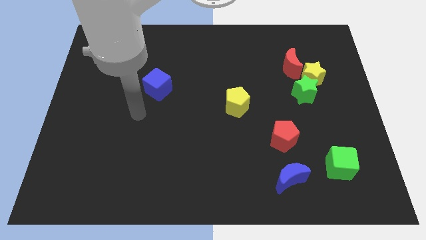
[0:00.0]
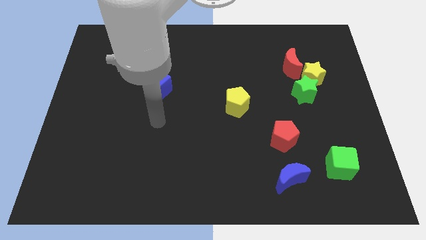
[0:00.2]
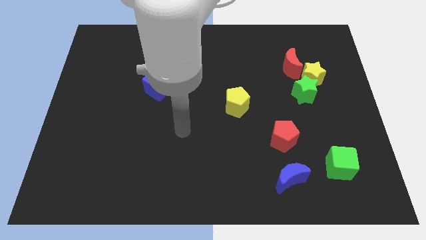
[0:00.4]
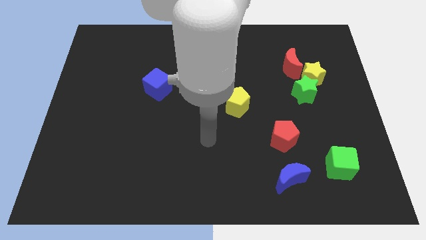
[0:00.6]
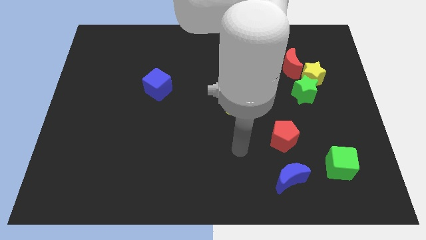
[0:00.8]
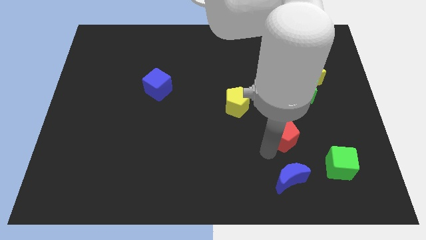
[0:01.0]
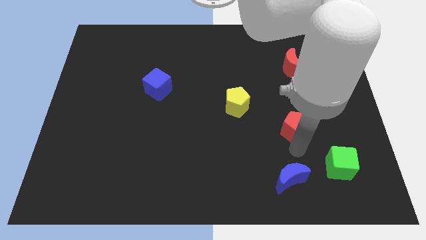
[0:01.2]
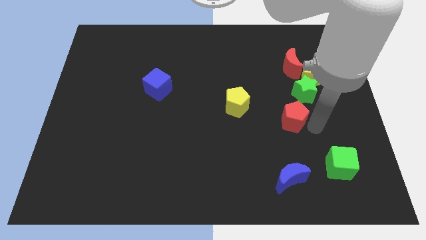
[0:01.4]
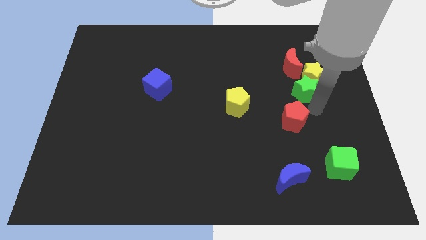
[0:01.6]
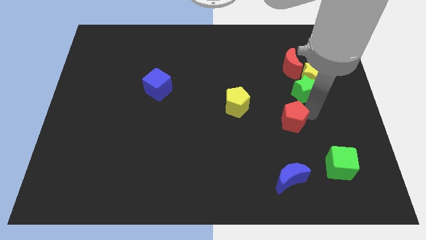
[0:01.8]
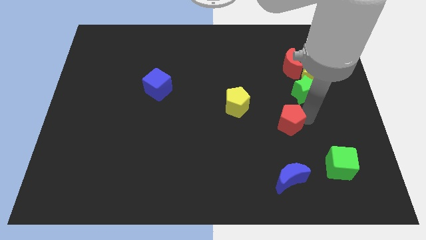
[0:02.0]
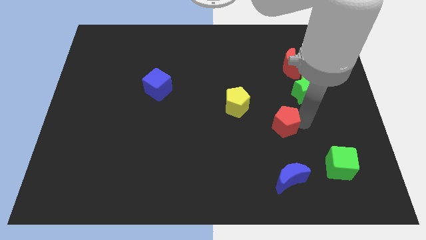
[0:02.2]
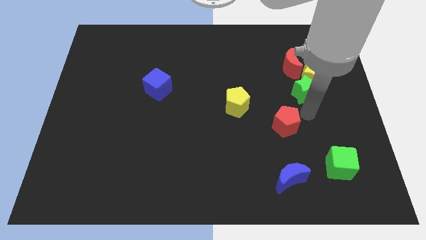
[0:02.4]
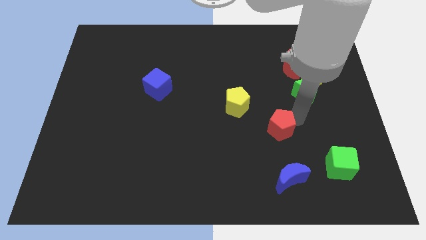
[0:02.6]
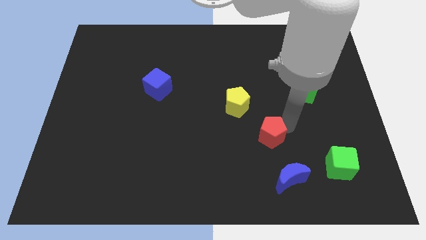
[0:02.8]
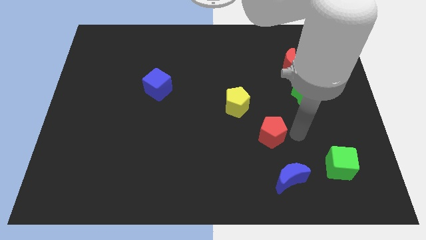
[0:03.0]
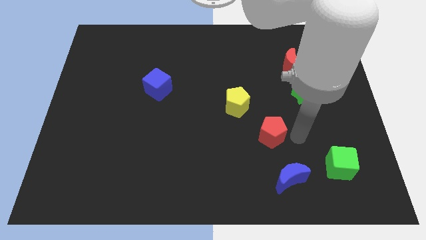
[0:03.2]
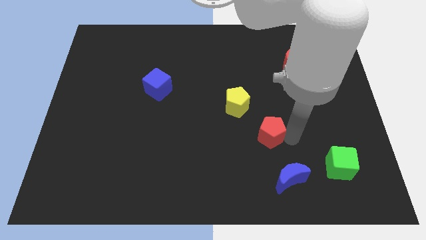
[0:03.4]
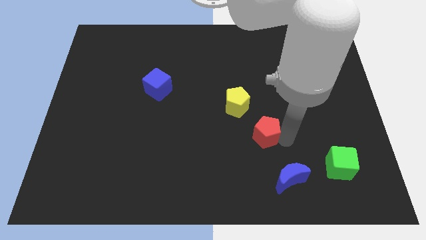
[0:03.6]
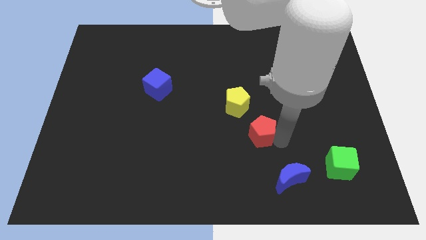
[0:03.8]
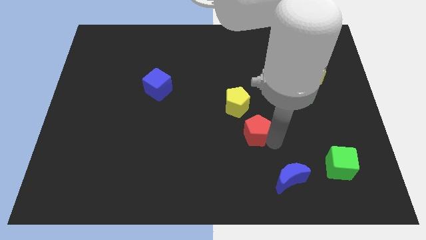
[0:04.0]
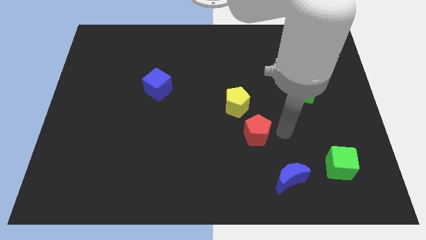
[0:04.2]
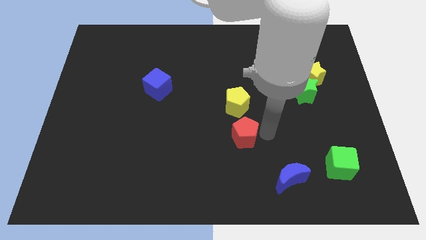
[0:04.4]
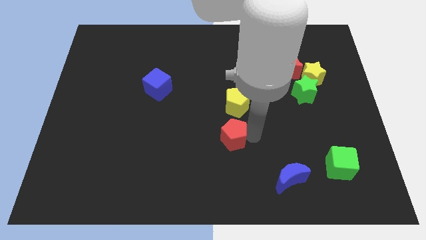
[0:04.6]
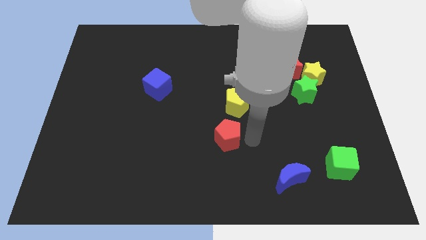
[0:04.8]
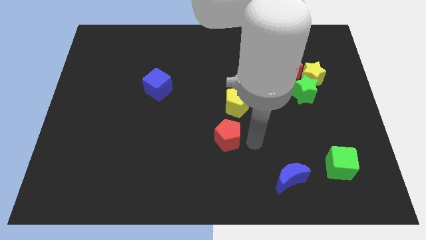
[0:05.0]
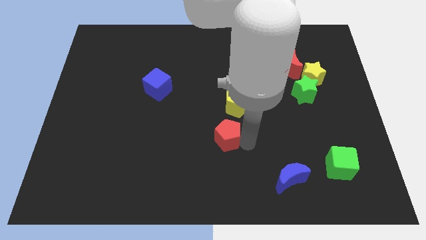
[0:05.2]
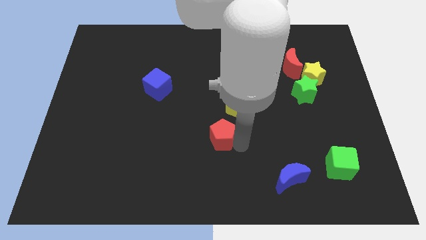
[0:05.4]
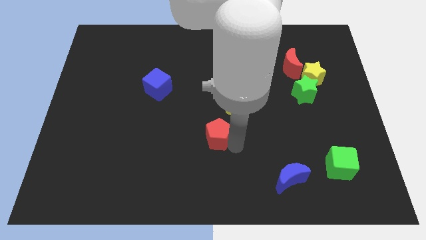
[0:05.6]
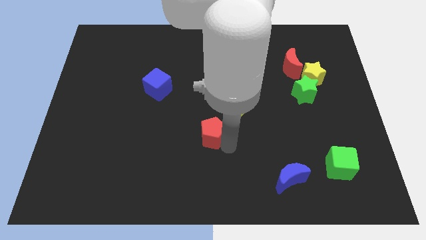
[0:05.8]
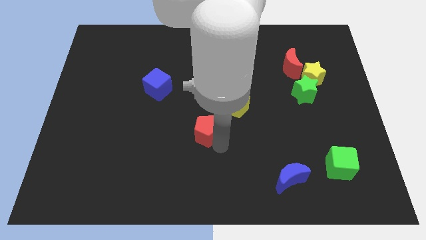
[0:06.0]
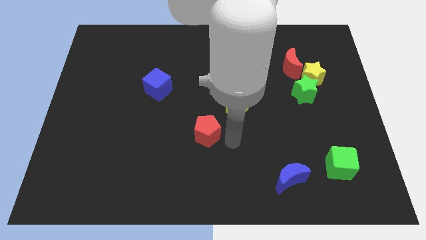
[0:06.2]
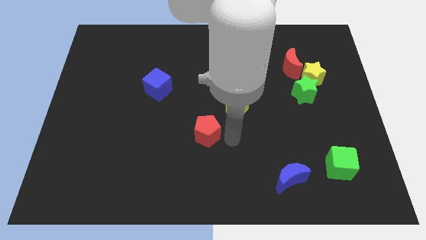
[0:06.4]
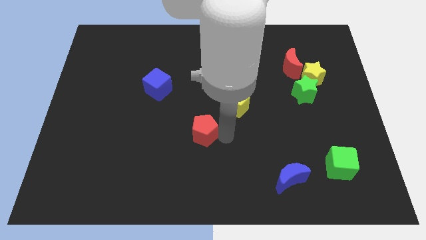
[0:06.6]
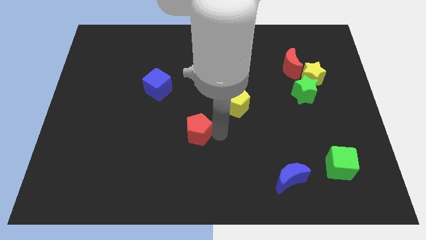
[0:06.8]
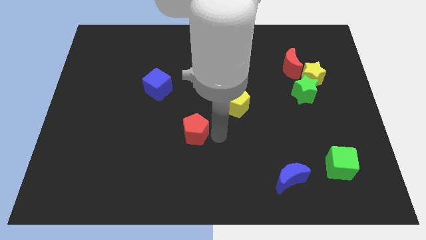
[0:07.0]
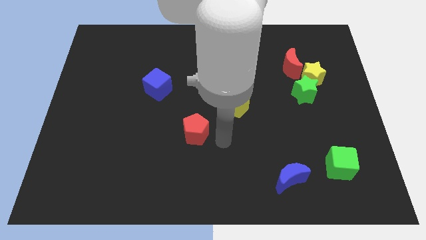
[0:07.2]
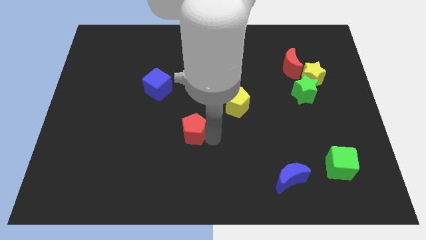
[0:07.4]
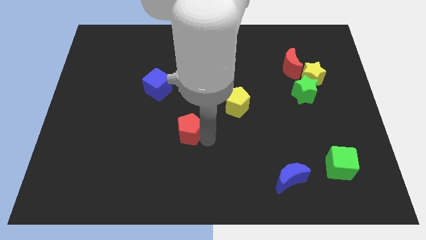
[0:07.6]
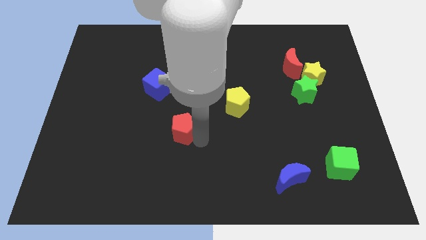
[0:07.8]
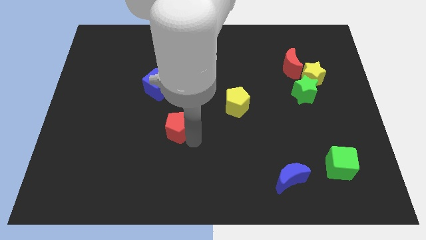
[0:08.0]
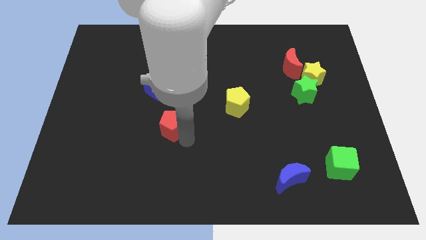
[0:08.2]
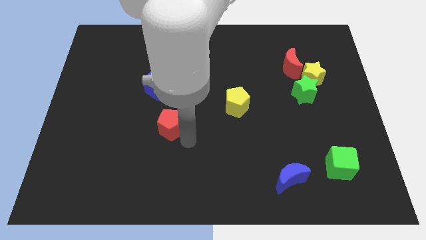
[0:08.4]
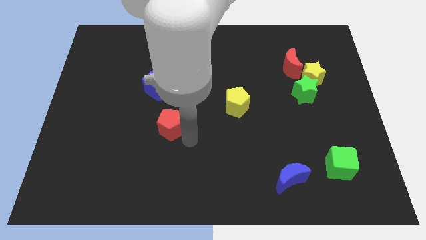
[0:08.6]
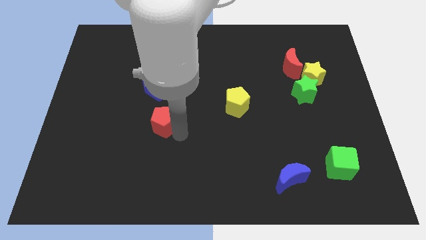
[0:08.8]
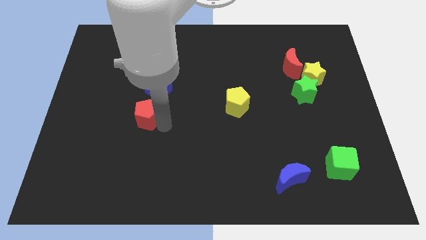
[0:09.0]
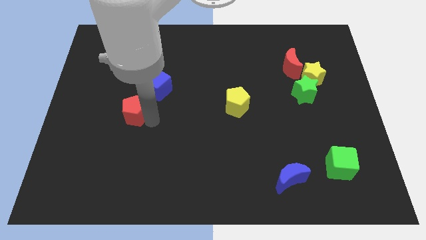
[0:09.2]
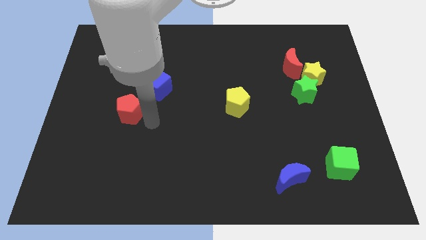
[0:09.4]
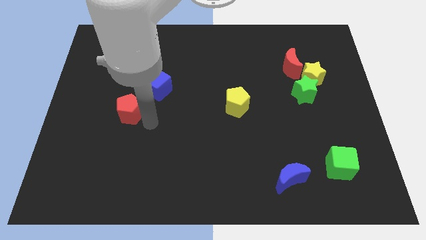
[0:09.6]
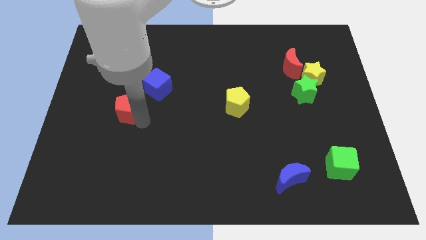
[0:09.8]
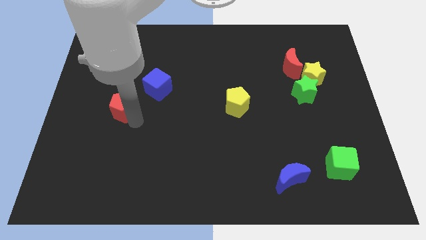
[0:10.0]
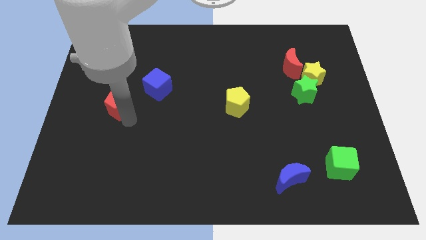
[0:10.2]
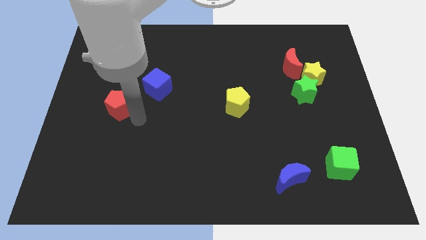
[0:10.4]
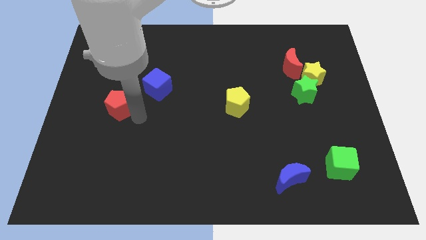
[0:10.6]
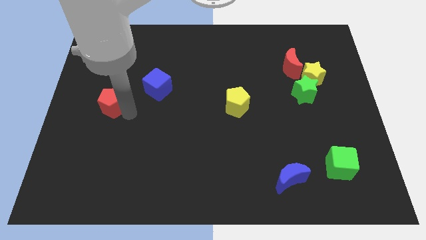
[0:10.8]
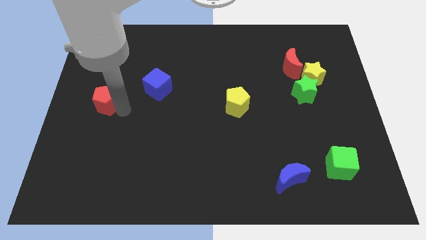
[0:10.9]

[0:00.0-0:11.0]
push the red pentagon to the left side

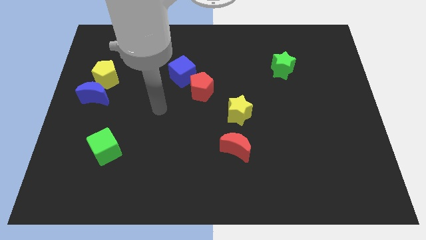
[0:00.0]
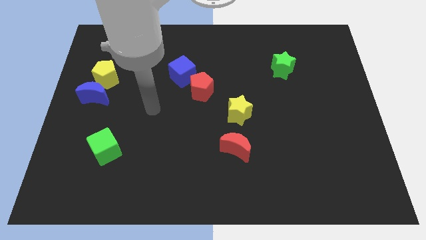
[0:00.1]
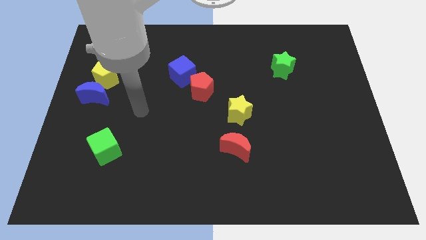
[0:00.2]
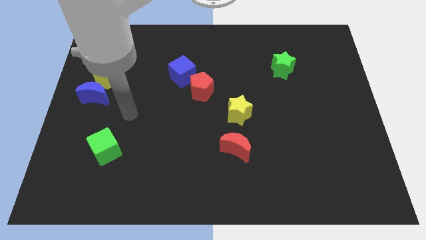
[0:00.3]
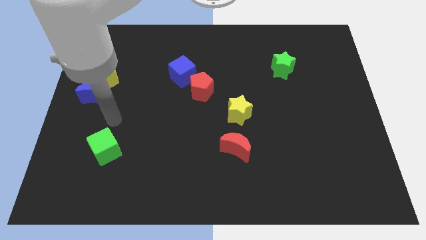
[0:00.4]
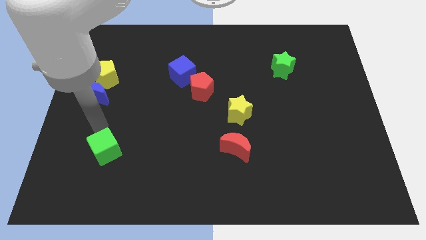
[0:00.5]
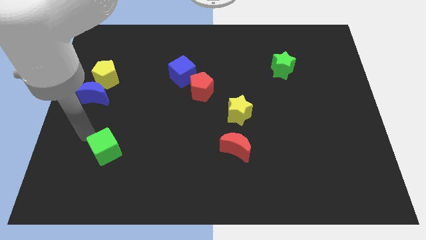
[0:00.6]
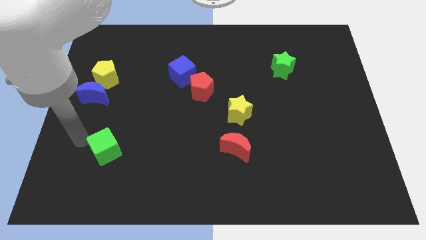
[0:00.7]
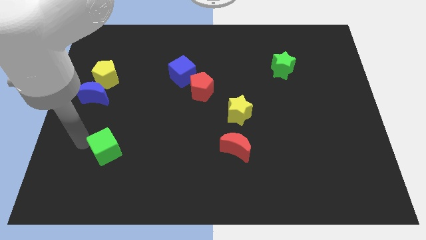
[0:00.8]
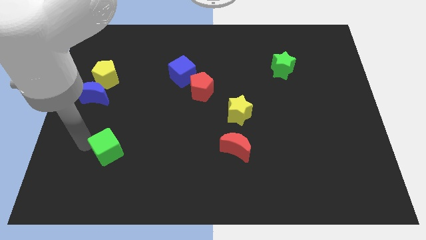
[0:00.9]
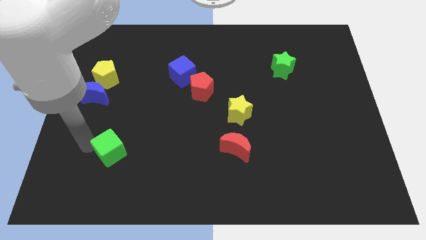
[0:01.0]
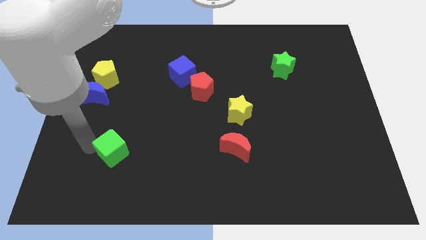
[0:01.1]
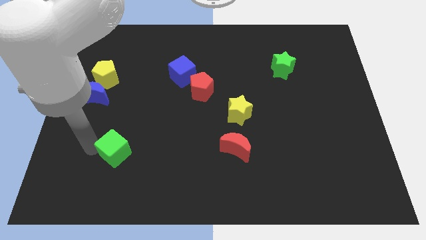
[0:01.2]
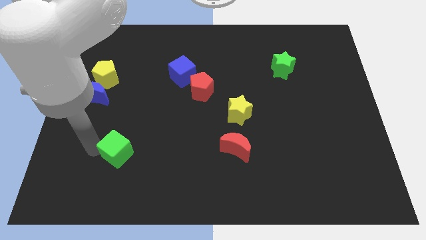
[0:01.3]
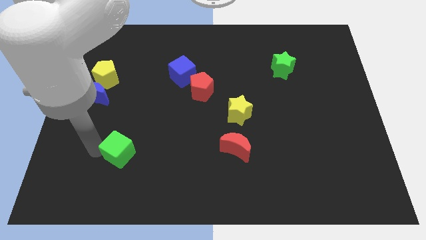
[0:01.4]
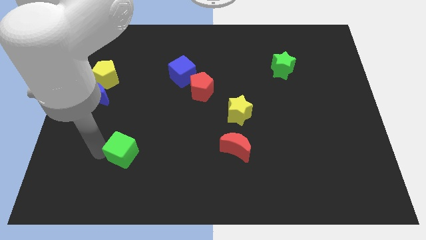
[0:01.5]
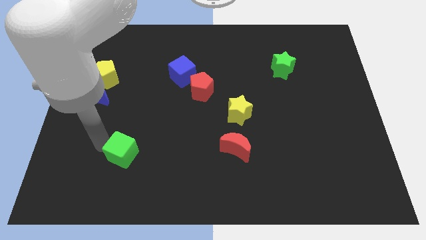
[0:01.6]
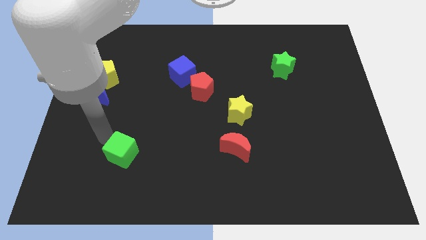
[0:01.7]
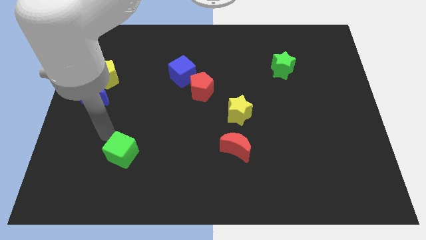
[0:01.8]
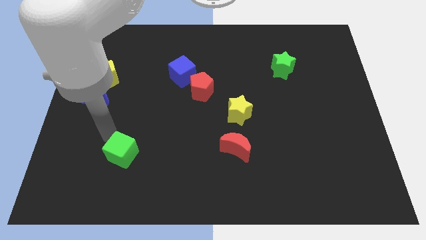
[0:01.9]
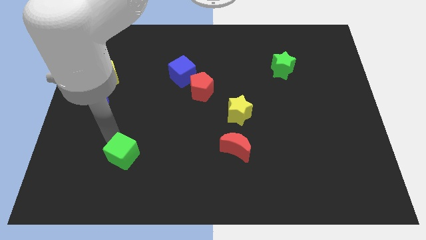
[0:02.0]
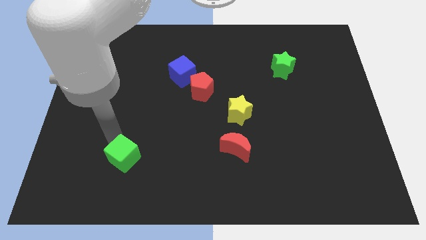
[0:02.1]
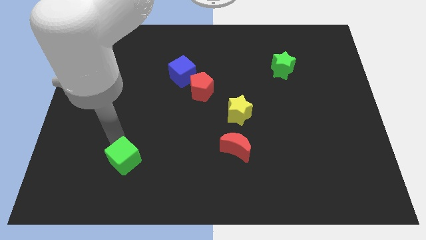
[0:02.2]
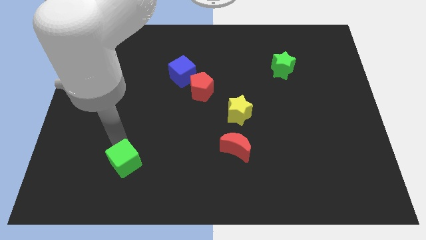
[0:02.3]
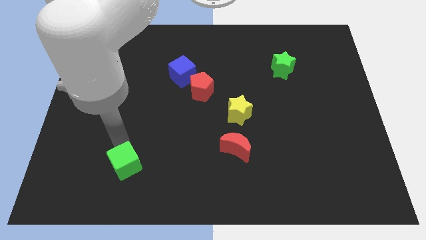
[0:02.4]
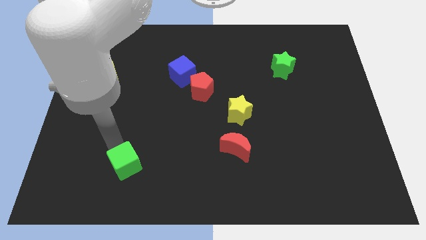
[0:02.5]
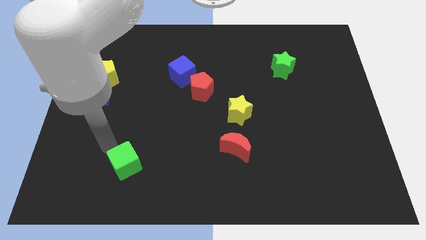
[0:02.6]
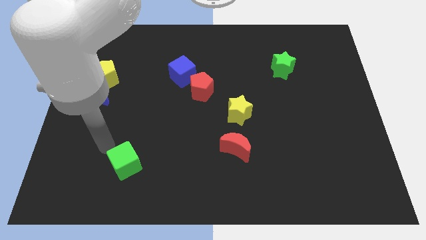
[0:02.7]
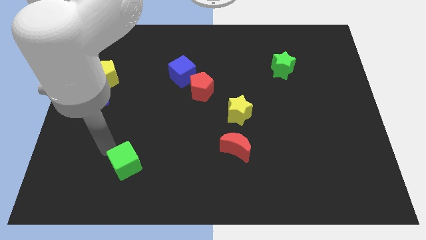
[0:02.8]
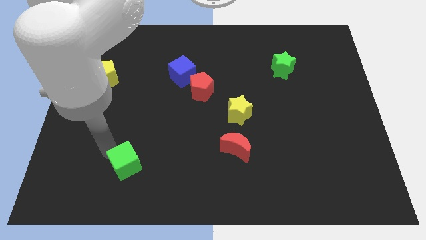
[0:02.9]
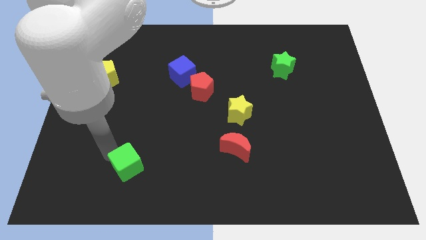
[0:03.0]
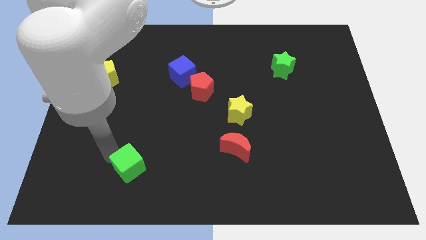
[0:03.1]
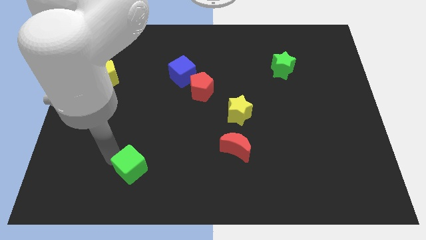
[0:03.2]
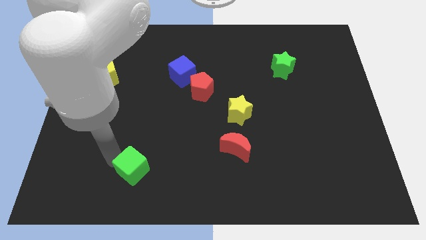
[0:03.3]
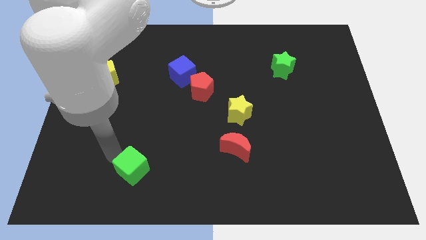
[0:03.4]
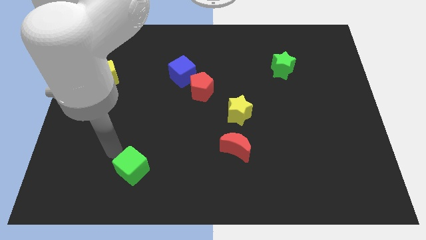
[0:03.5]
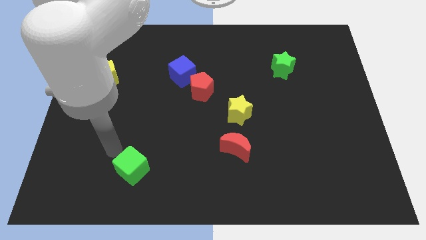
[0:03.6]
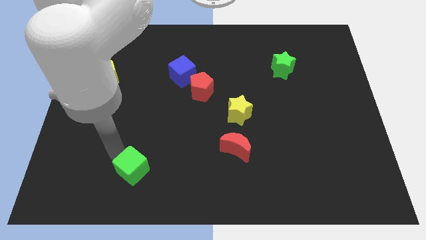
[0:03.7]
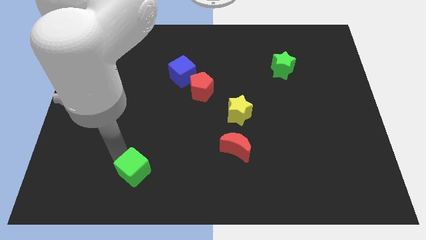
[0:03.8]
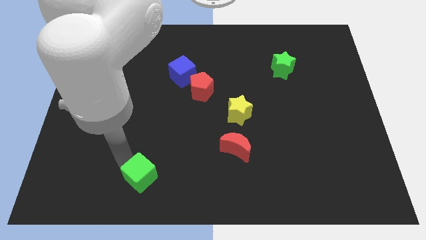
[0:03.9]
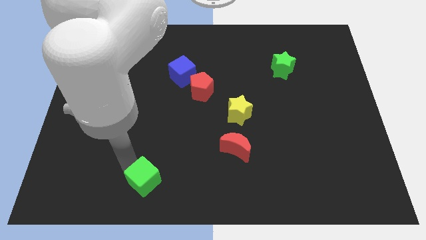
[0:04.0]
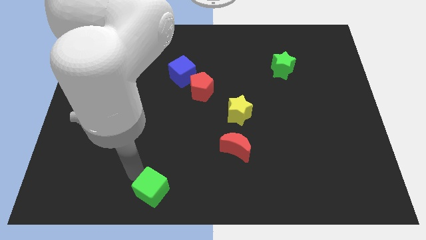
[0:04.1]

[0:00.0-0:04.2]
move the green cube to the bottom
